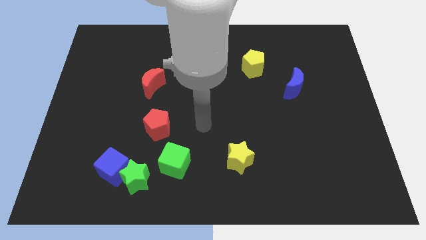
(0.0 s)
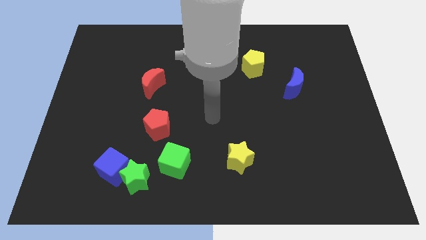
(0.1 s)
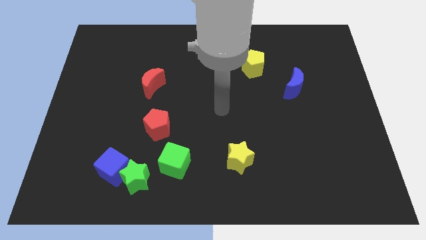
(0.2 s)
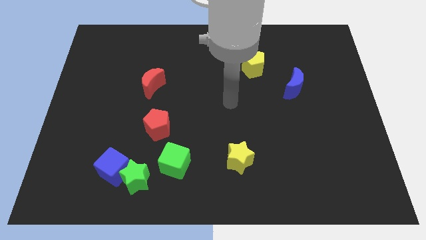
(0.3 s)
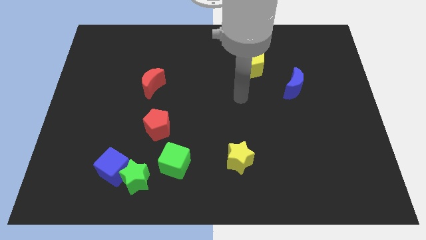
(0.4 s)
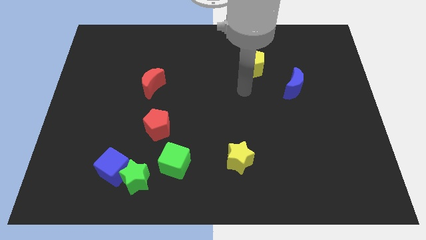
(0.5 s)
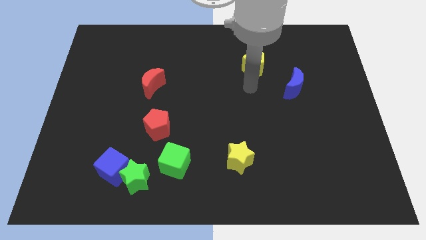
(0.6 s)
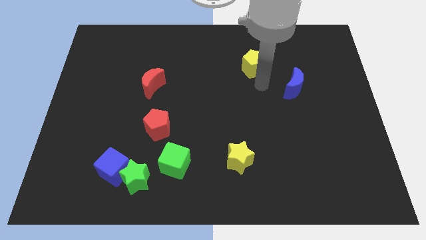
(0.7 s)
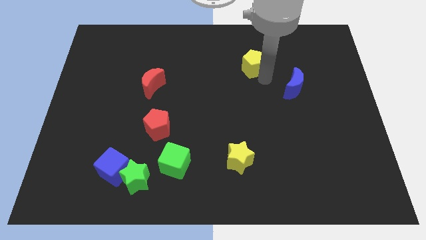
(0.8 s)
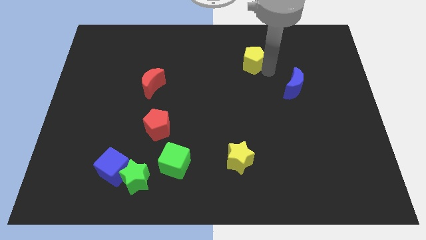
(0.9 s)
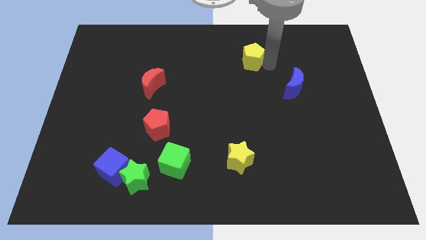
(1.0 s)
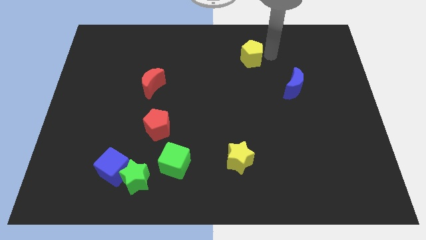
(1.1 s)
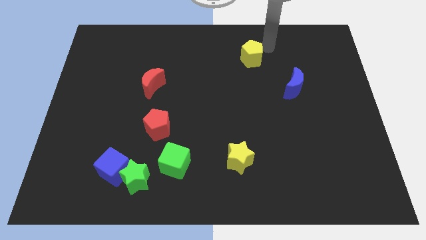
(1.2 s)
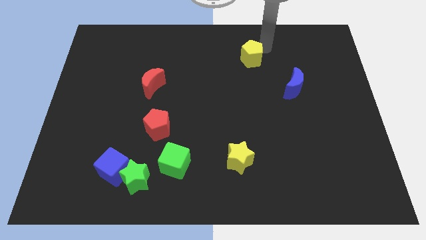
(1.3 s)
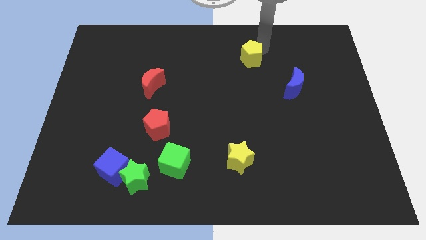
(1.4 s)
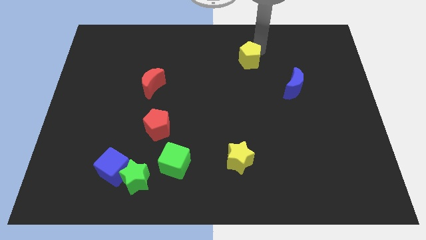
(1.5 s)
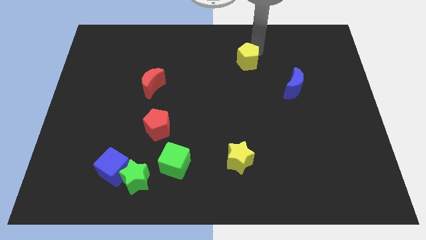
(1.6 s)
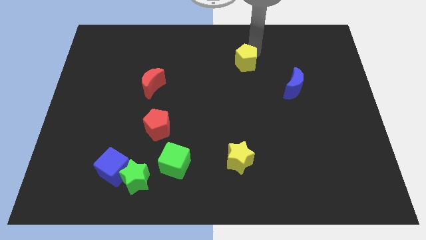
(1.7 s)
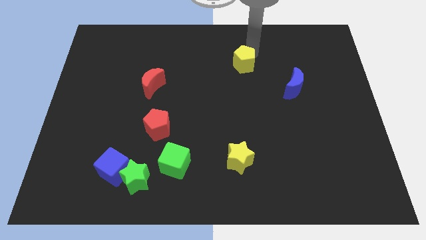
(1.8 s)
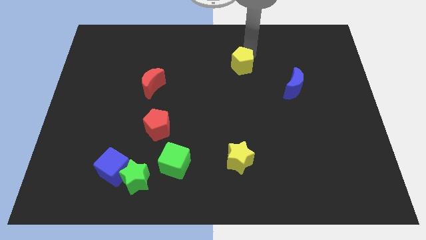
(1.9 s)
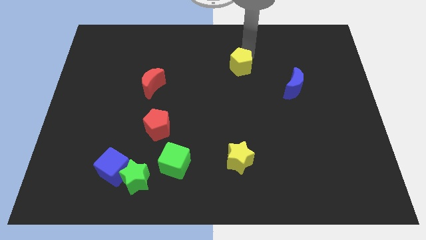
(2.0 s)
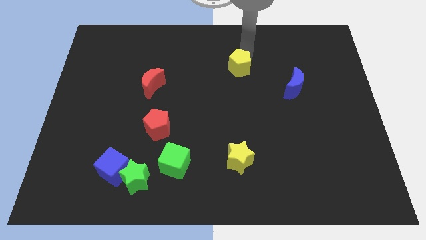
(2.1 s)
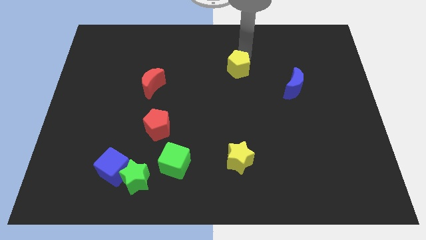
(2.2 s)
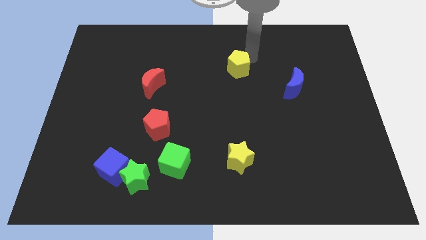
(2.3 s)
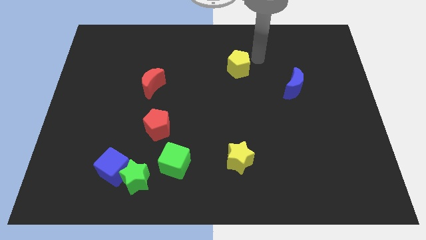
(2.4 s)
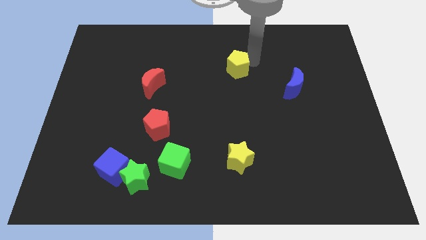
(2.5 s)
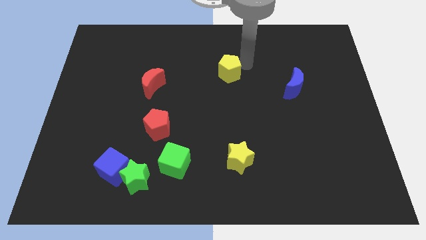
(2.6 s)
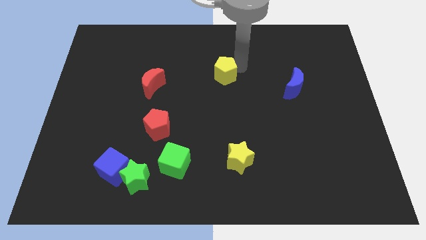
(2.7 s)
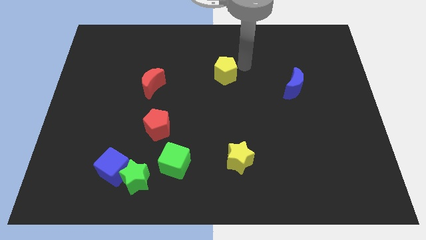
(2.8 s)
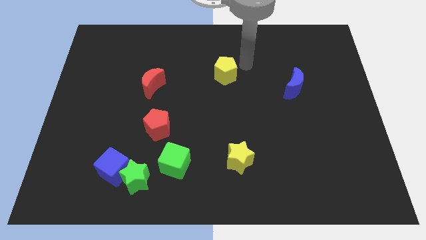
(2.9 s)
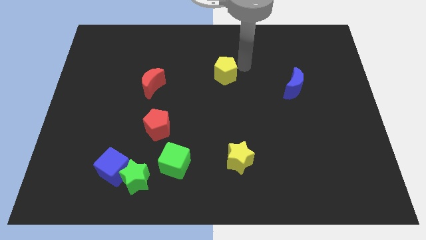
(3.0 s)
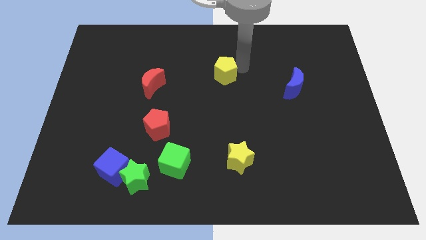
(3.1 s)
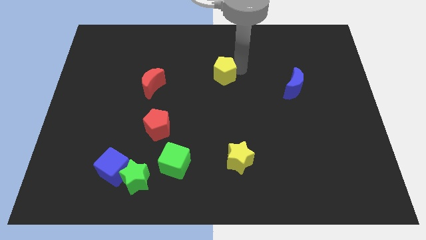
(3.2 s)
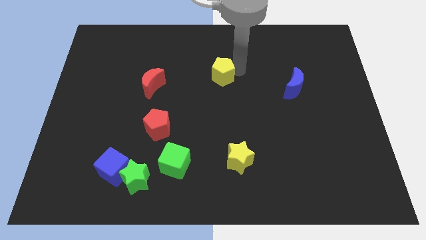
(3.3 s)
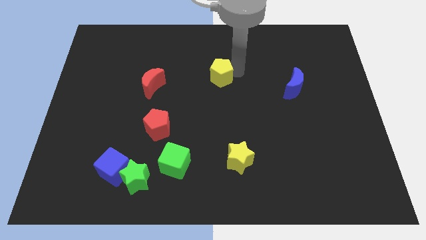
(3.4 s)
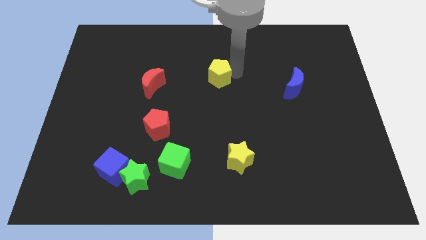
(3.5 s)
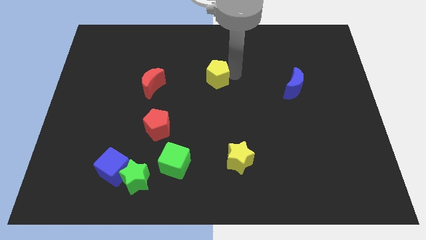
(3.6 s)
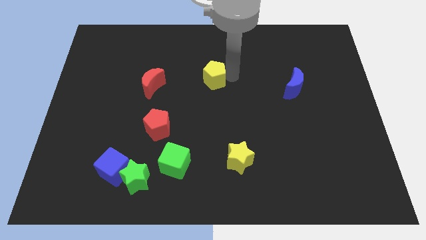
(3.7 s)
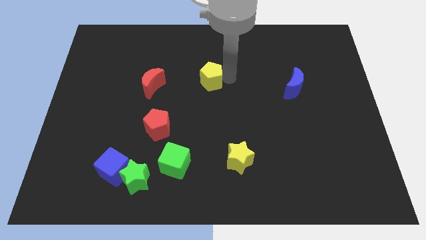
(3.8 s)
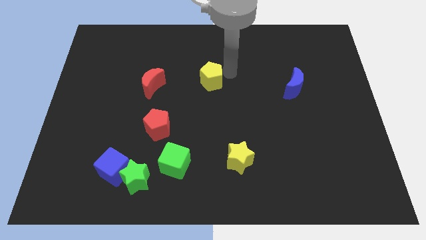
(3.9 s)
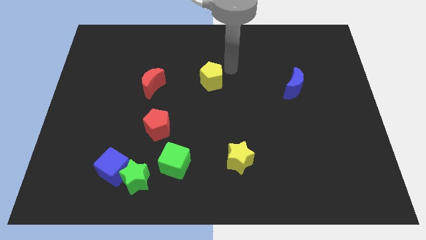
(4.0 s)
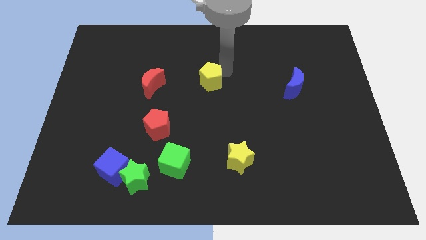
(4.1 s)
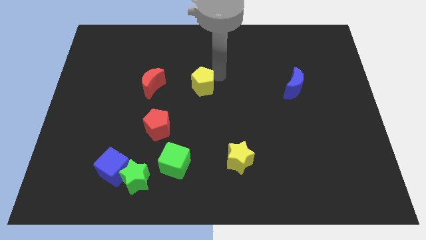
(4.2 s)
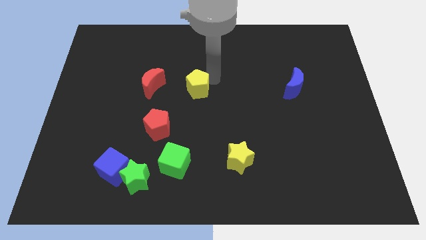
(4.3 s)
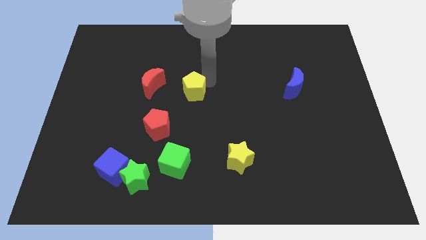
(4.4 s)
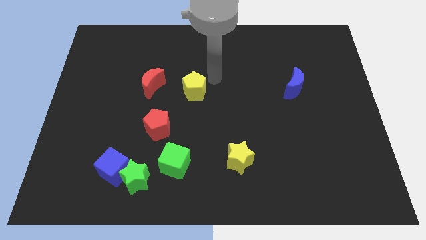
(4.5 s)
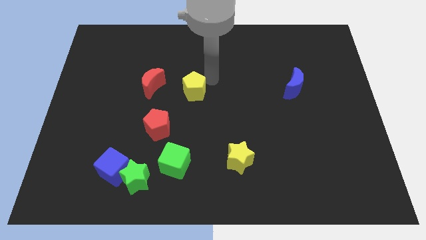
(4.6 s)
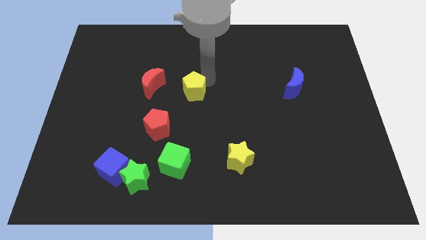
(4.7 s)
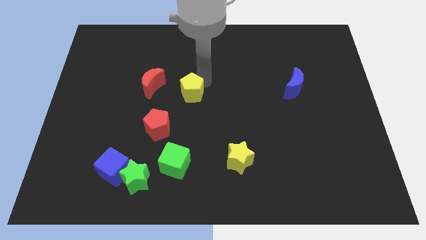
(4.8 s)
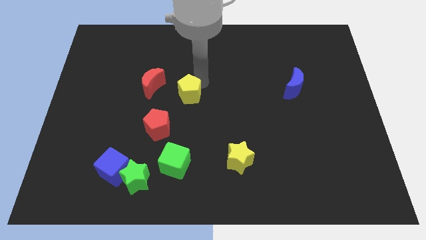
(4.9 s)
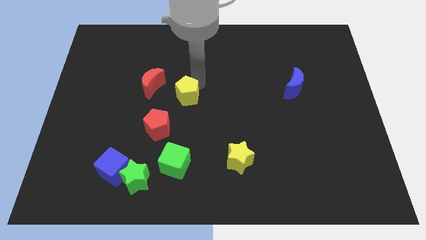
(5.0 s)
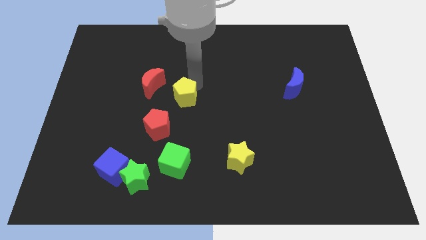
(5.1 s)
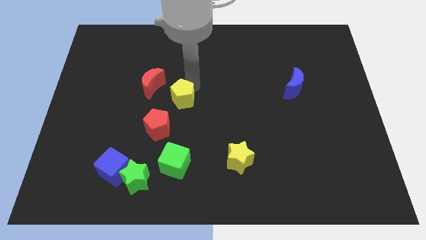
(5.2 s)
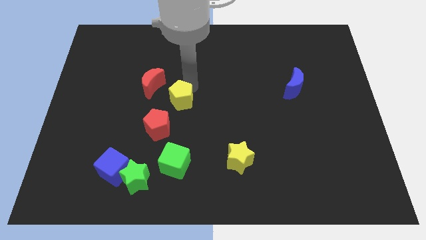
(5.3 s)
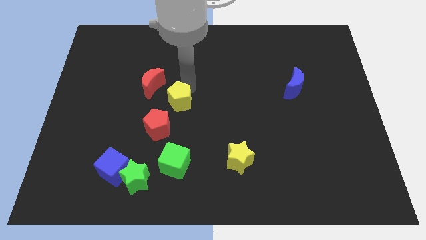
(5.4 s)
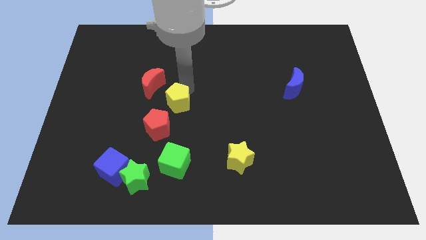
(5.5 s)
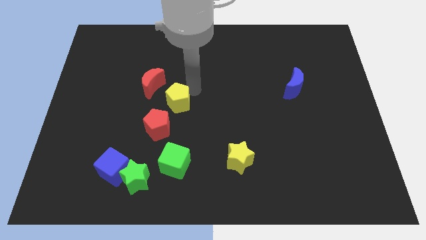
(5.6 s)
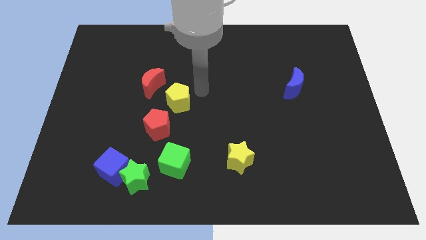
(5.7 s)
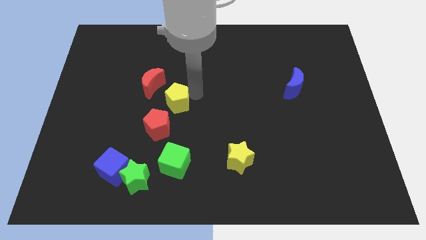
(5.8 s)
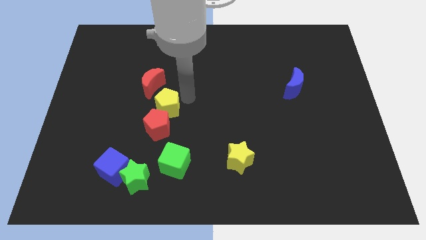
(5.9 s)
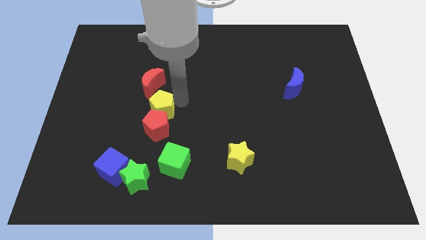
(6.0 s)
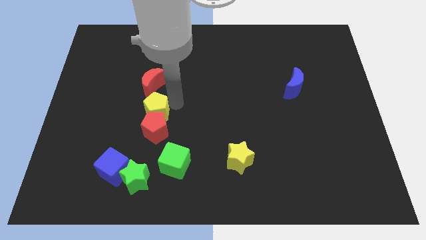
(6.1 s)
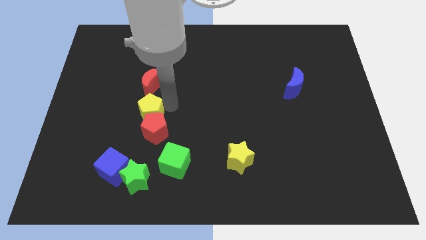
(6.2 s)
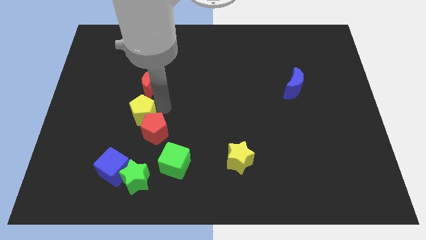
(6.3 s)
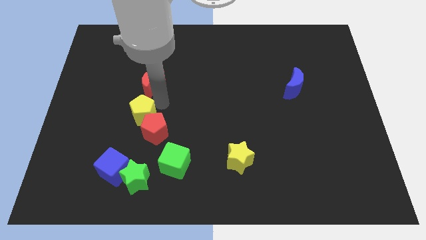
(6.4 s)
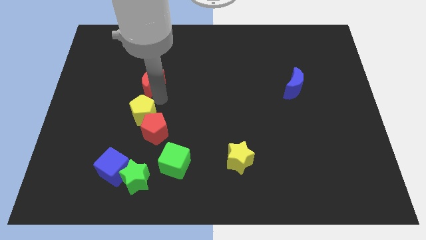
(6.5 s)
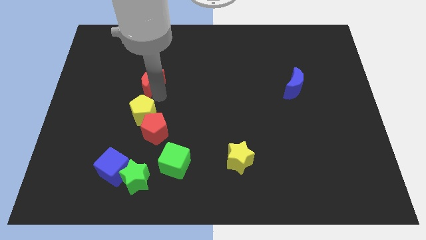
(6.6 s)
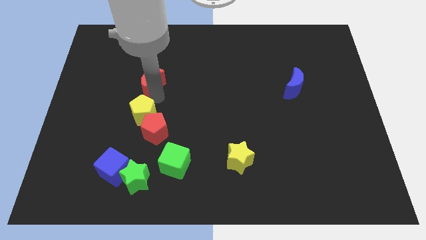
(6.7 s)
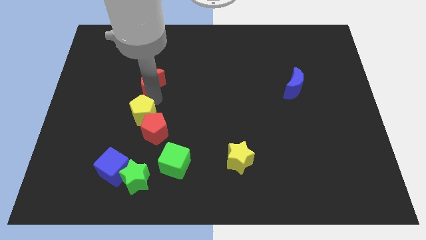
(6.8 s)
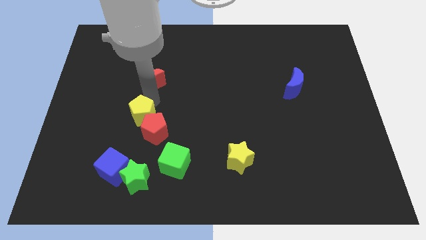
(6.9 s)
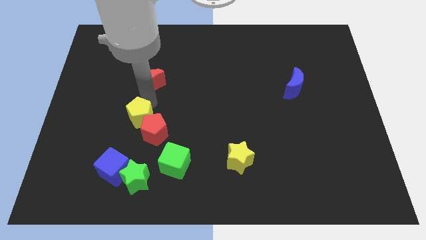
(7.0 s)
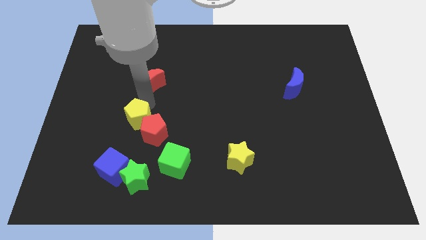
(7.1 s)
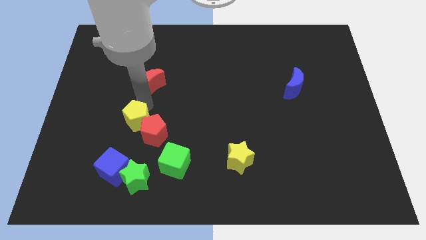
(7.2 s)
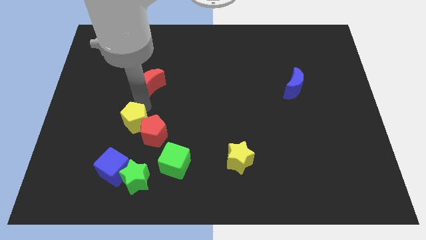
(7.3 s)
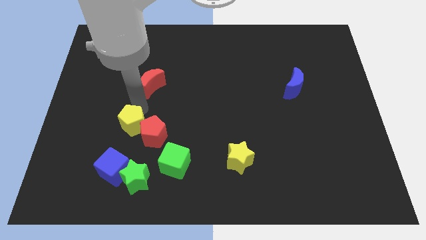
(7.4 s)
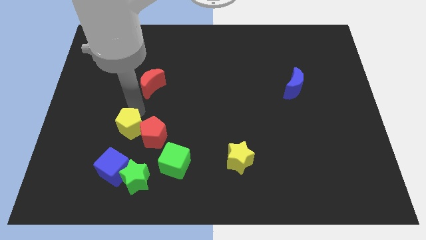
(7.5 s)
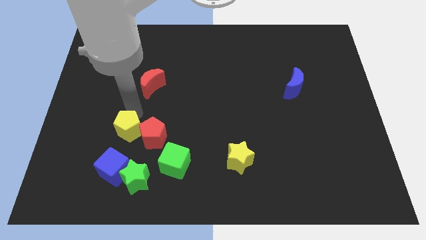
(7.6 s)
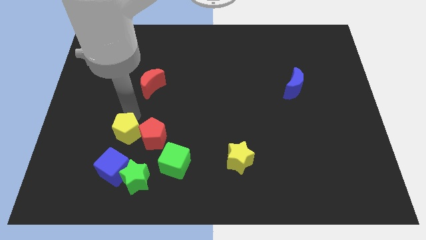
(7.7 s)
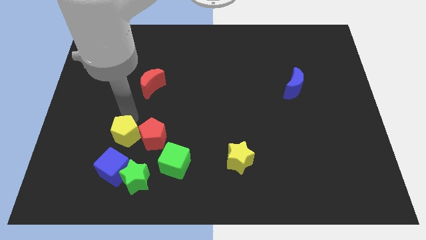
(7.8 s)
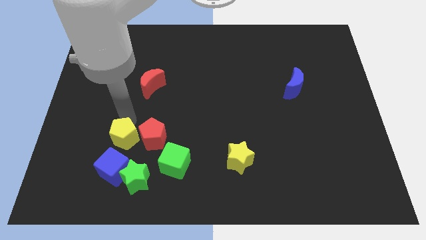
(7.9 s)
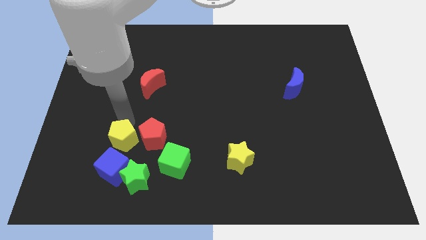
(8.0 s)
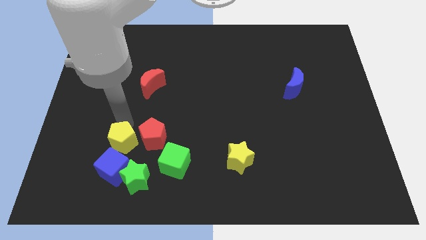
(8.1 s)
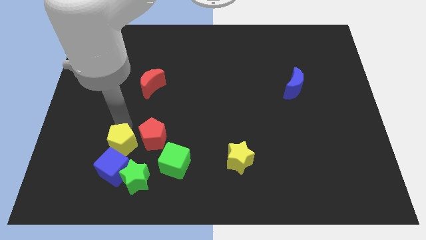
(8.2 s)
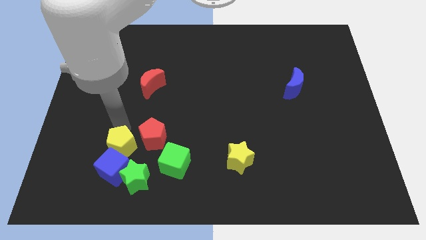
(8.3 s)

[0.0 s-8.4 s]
move the yellow pentagon close to the blue cube
